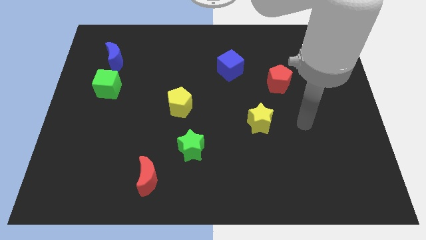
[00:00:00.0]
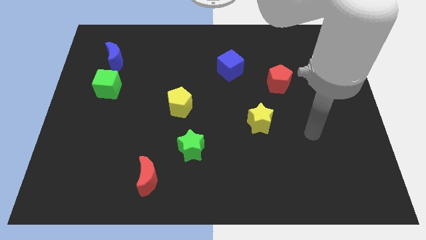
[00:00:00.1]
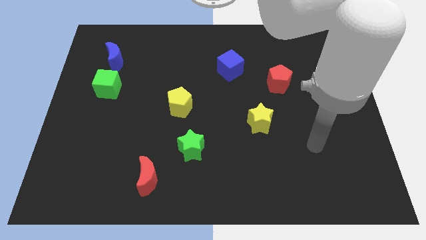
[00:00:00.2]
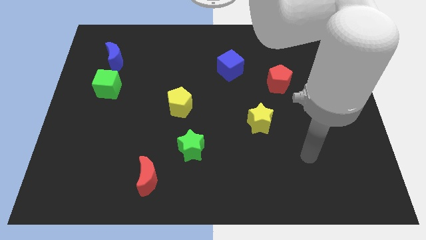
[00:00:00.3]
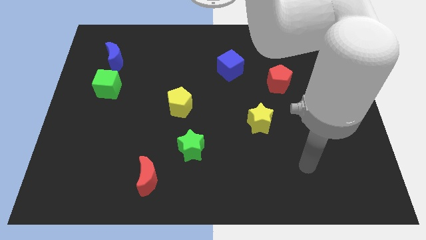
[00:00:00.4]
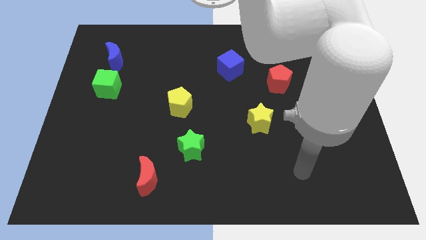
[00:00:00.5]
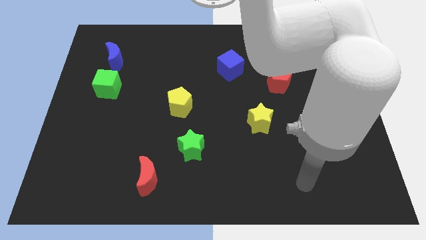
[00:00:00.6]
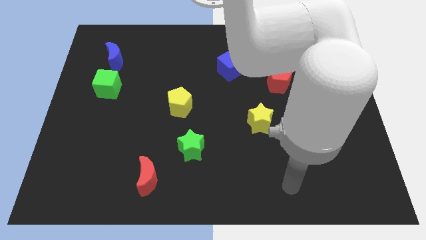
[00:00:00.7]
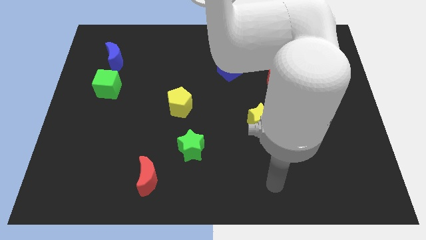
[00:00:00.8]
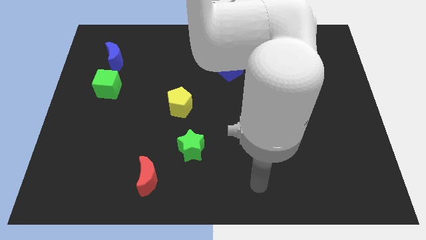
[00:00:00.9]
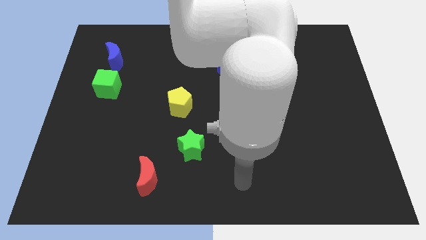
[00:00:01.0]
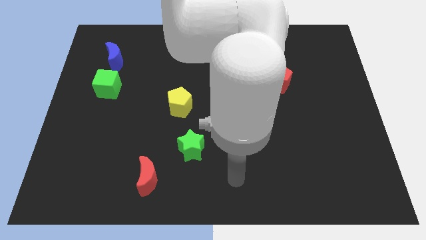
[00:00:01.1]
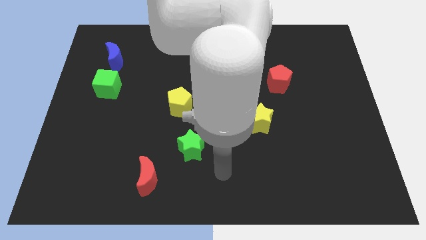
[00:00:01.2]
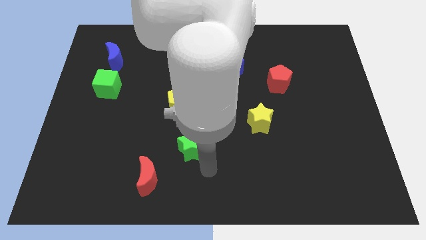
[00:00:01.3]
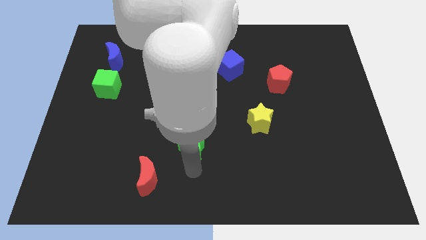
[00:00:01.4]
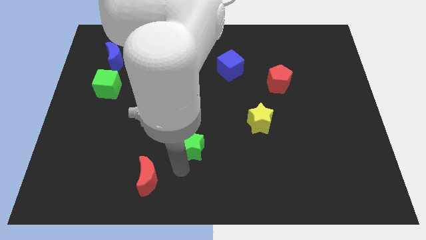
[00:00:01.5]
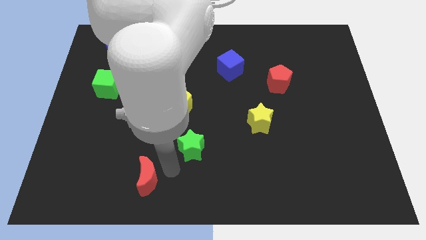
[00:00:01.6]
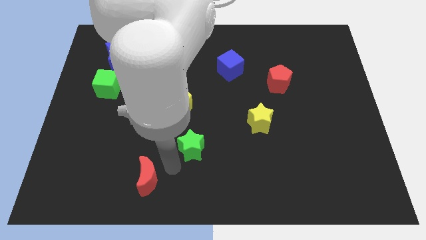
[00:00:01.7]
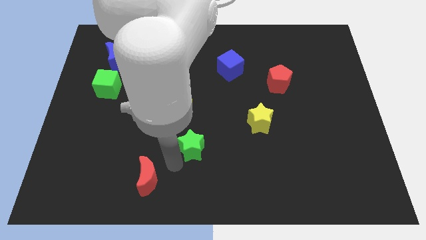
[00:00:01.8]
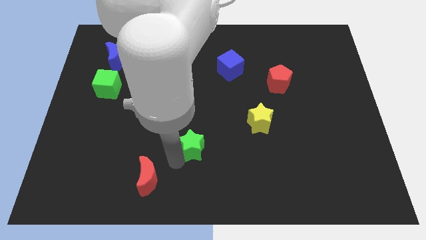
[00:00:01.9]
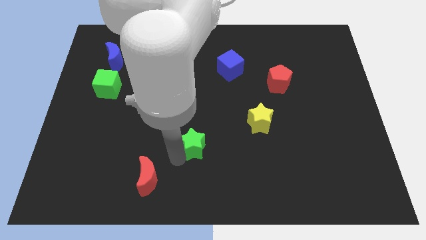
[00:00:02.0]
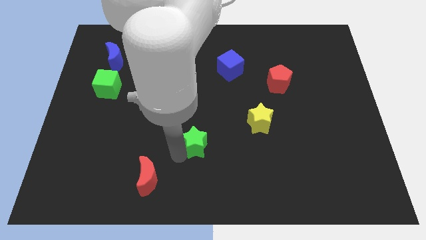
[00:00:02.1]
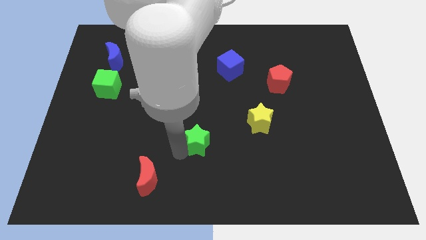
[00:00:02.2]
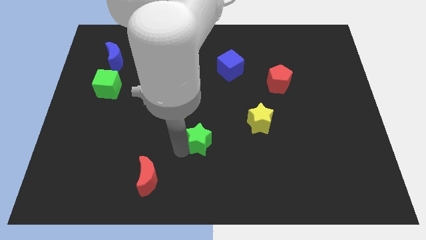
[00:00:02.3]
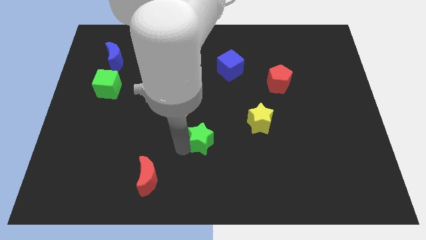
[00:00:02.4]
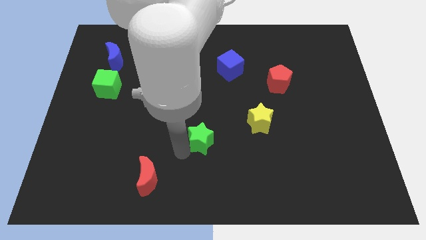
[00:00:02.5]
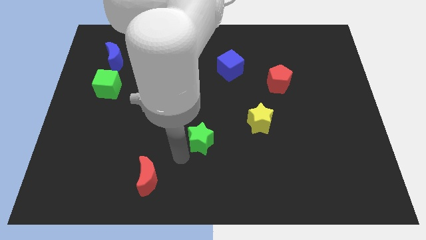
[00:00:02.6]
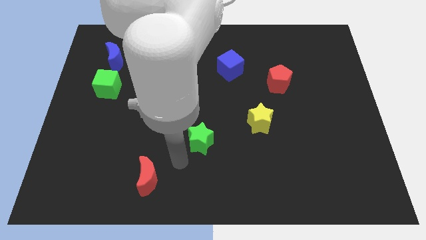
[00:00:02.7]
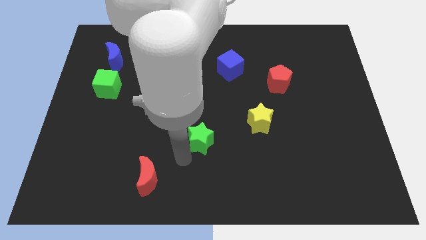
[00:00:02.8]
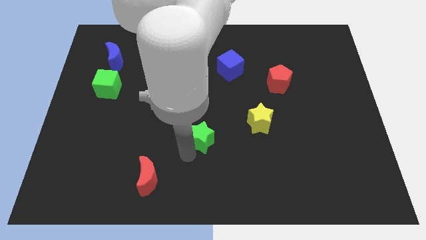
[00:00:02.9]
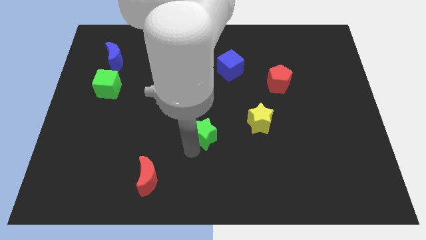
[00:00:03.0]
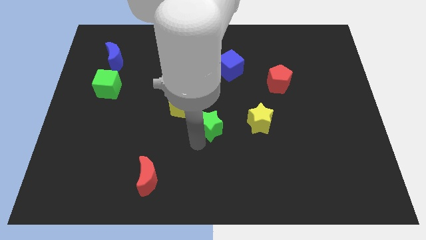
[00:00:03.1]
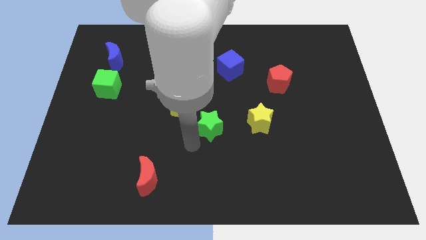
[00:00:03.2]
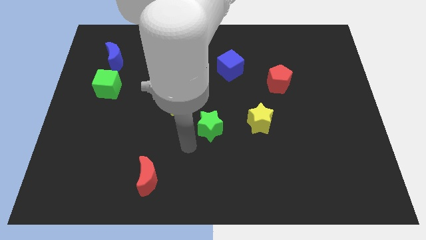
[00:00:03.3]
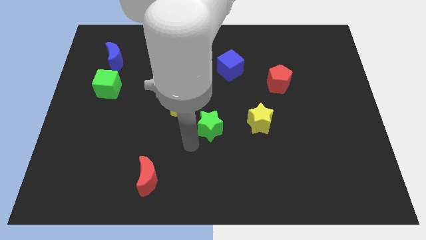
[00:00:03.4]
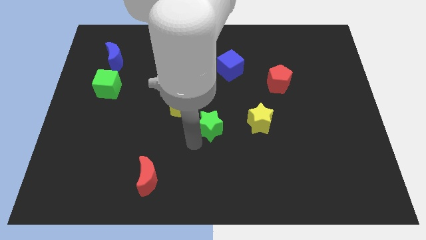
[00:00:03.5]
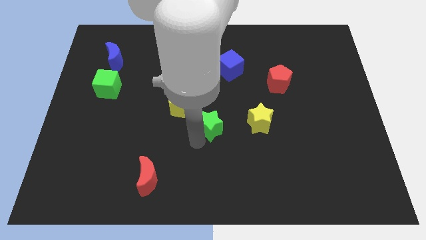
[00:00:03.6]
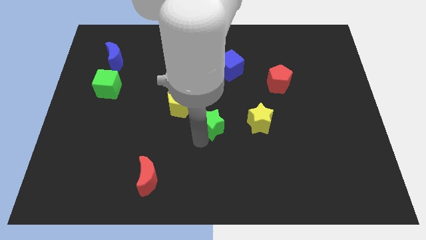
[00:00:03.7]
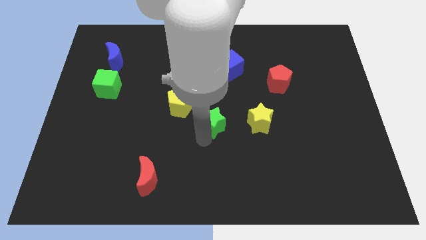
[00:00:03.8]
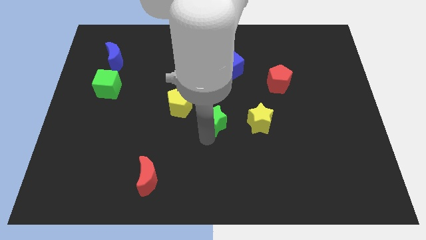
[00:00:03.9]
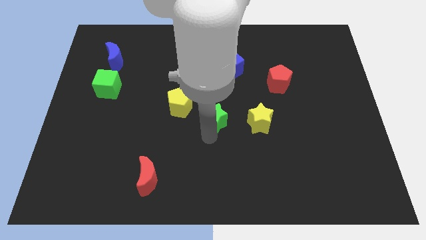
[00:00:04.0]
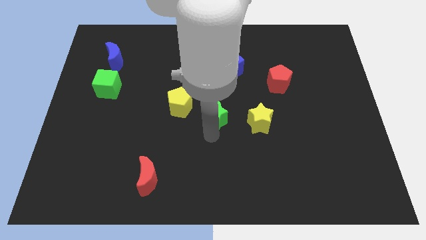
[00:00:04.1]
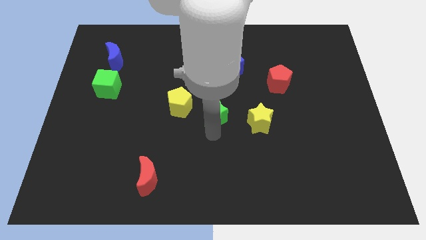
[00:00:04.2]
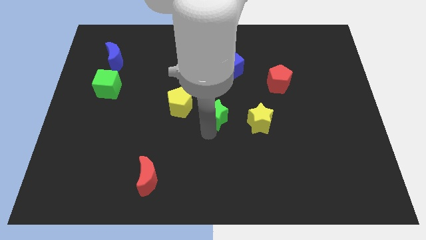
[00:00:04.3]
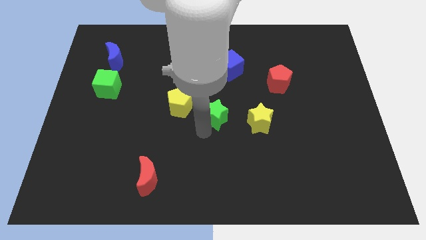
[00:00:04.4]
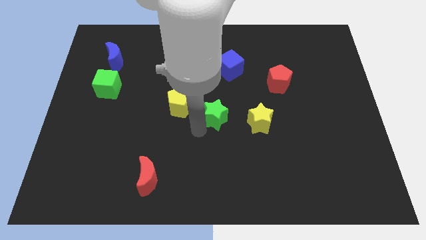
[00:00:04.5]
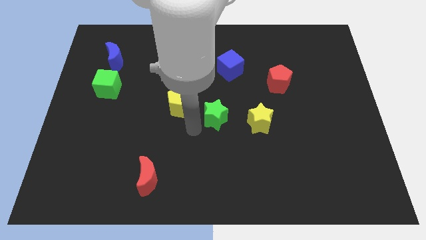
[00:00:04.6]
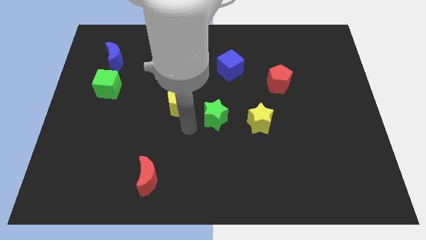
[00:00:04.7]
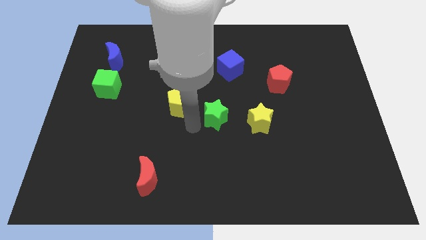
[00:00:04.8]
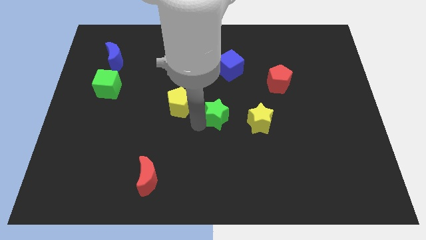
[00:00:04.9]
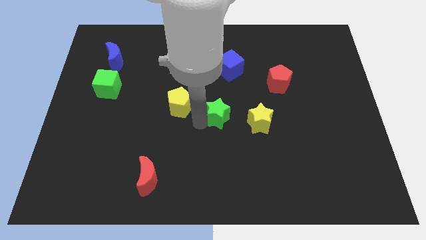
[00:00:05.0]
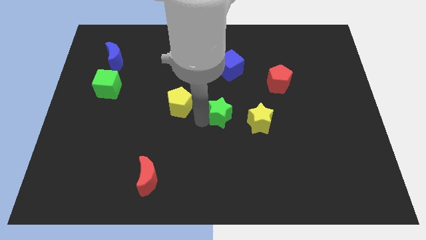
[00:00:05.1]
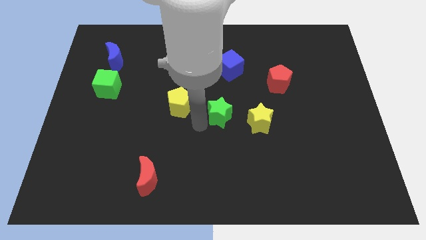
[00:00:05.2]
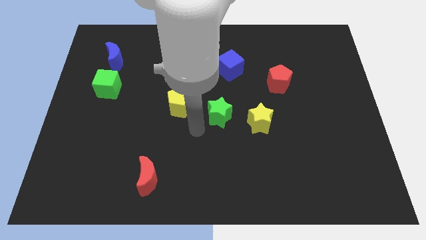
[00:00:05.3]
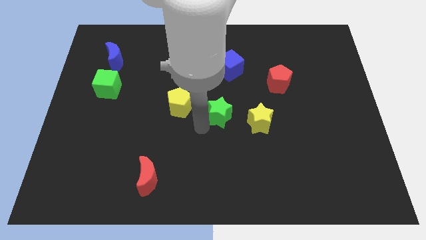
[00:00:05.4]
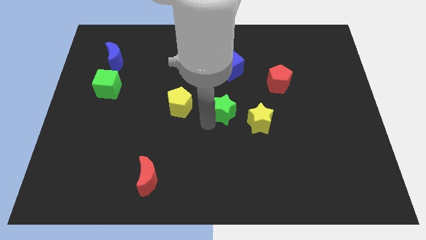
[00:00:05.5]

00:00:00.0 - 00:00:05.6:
put the green star diagonally up and to the left of the yellow star
